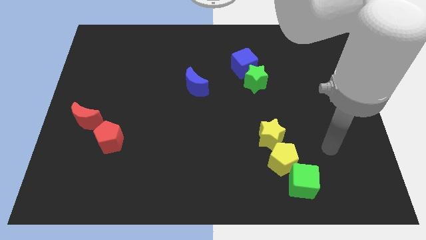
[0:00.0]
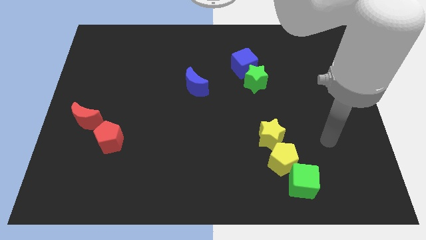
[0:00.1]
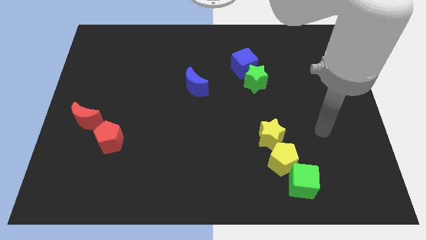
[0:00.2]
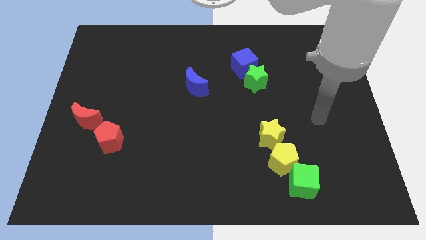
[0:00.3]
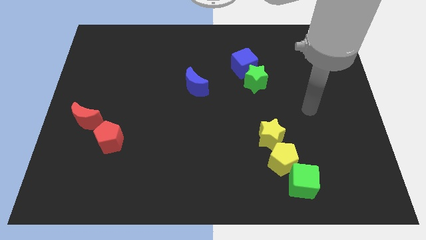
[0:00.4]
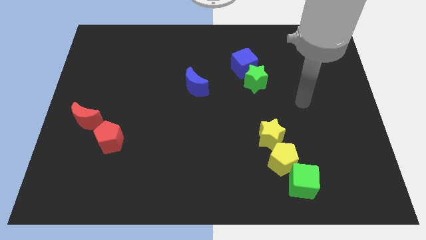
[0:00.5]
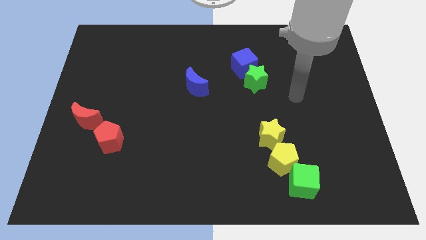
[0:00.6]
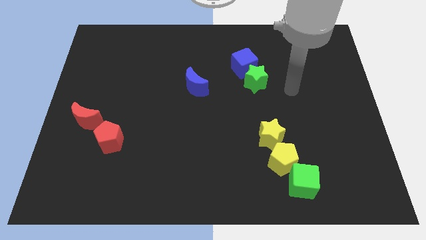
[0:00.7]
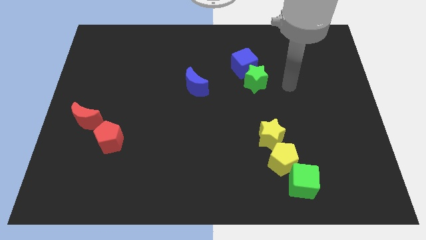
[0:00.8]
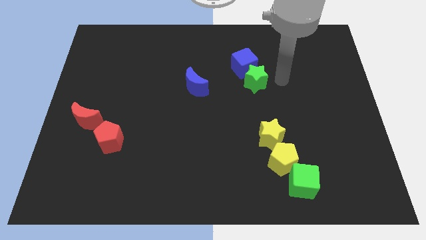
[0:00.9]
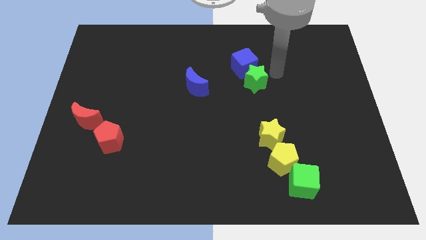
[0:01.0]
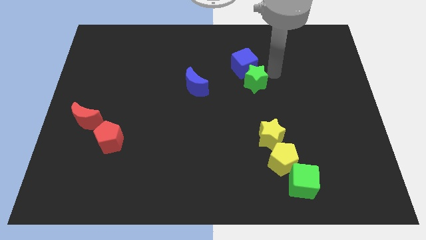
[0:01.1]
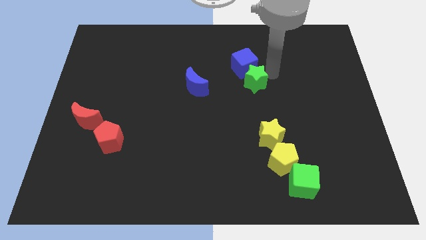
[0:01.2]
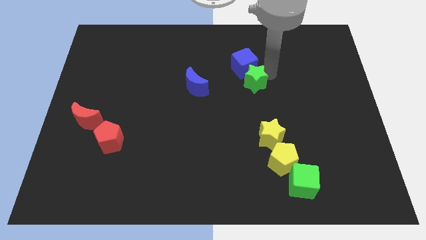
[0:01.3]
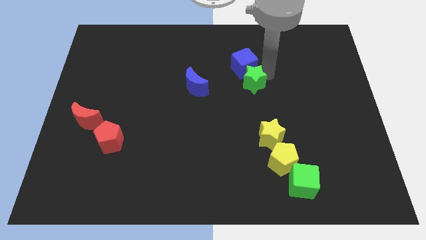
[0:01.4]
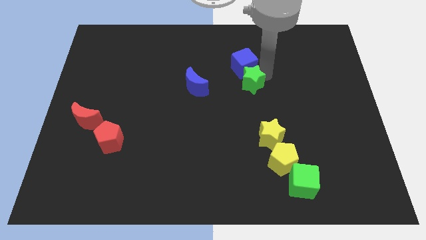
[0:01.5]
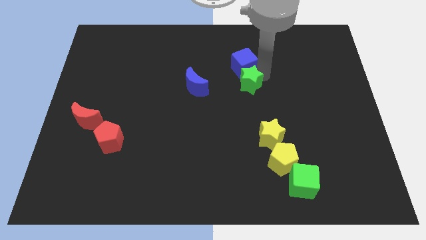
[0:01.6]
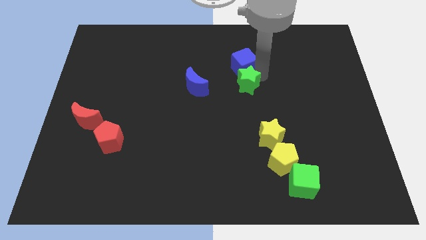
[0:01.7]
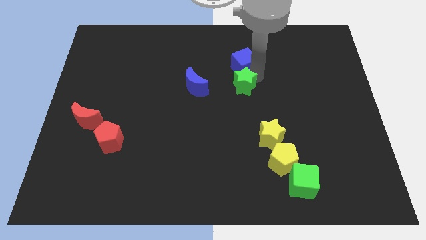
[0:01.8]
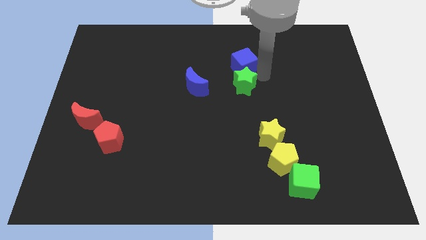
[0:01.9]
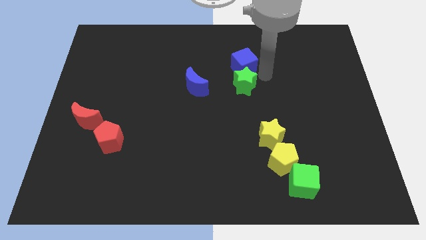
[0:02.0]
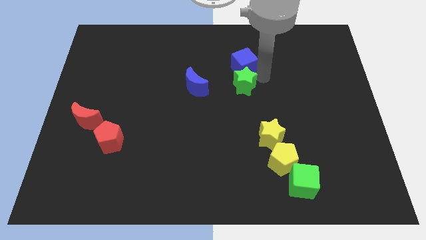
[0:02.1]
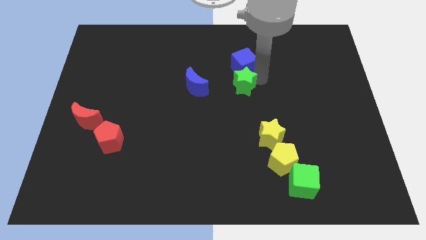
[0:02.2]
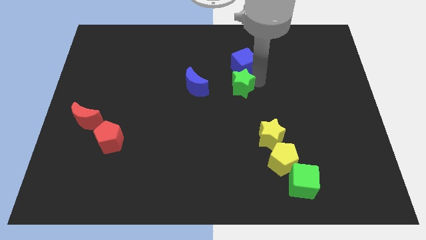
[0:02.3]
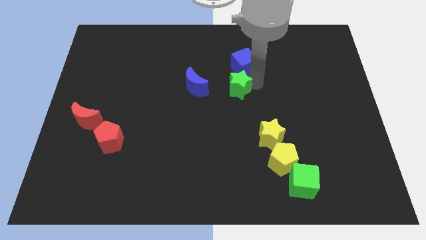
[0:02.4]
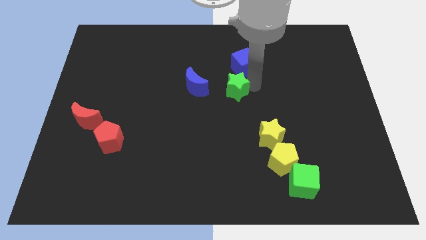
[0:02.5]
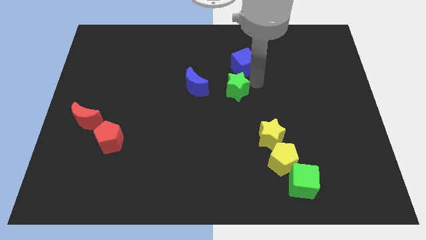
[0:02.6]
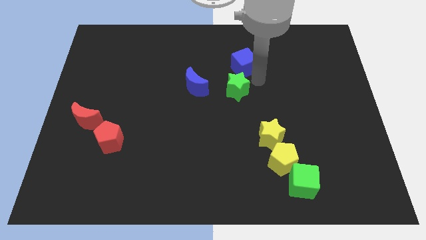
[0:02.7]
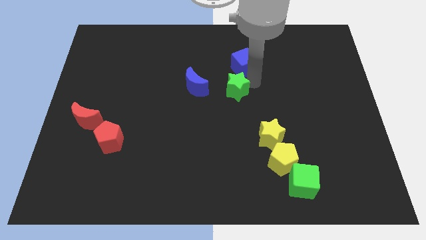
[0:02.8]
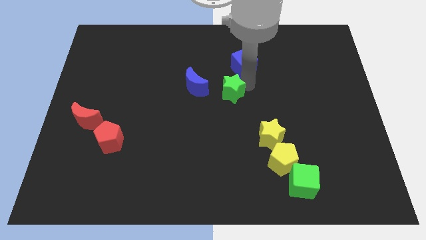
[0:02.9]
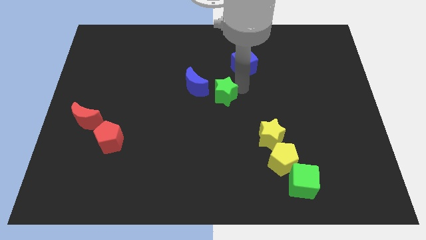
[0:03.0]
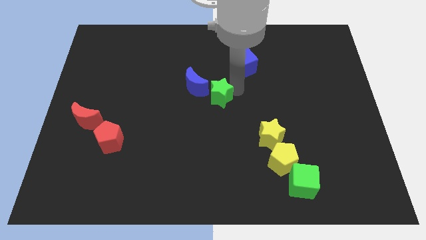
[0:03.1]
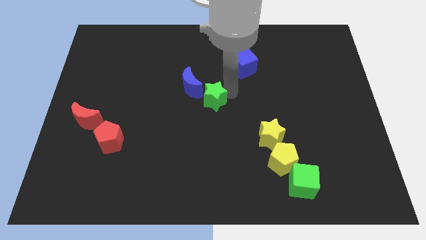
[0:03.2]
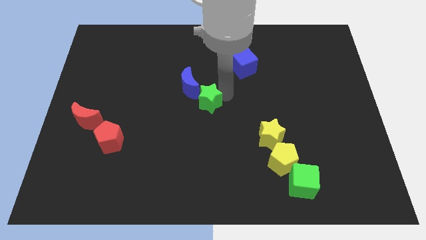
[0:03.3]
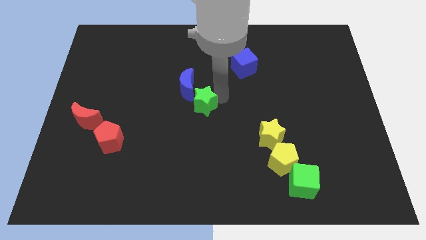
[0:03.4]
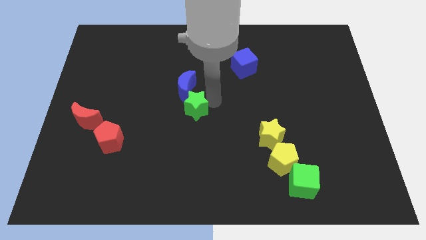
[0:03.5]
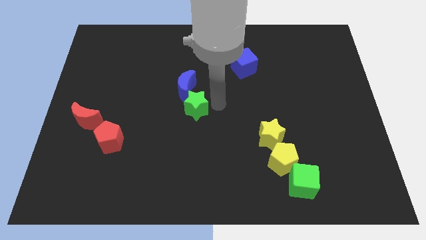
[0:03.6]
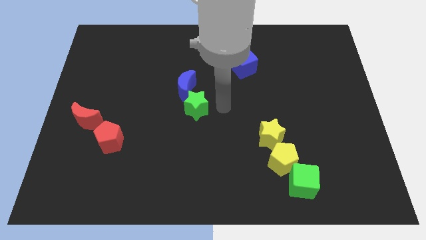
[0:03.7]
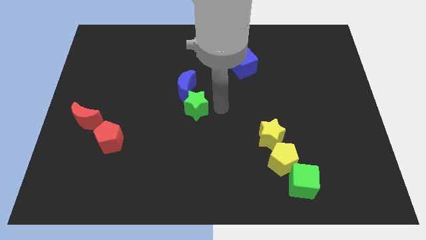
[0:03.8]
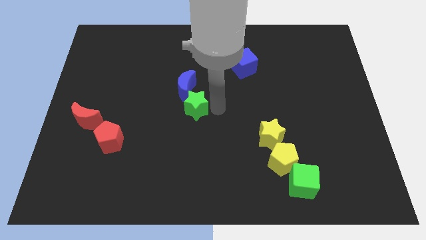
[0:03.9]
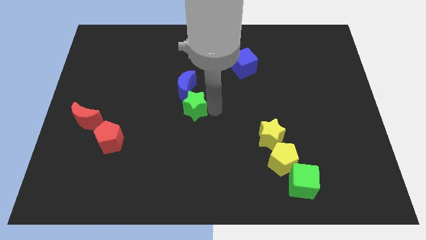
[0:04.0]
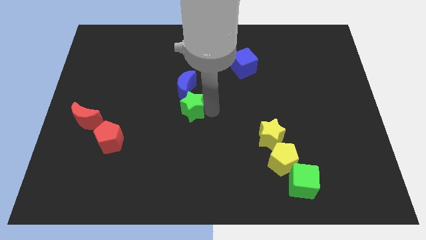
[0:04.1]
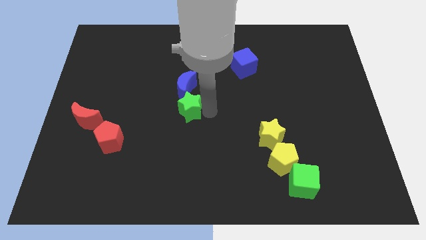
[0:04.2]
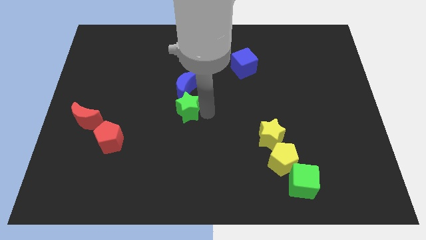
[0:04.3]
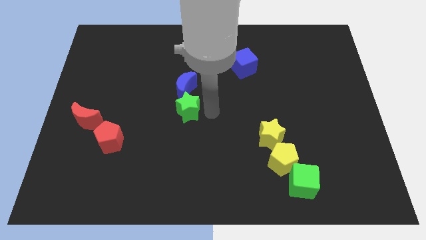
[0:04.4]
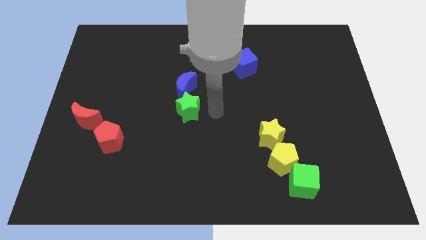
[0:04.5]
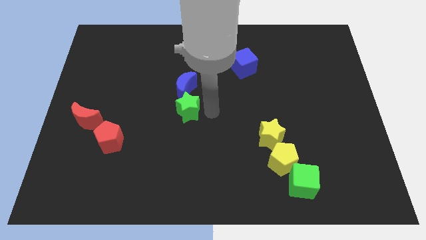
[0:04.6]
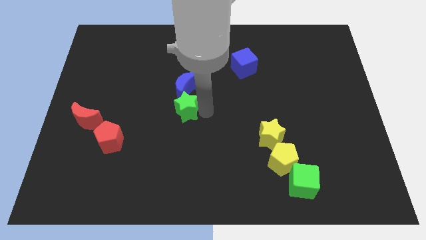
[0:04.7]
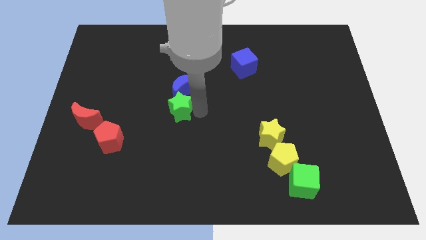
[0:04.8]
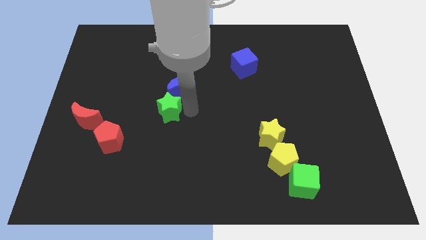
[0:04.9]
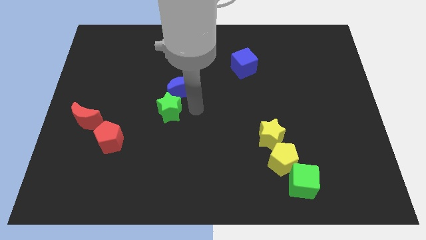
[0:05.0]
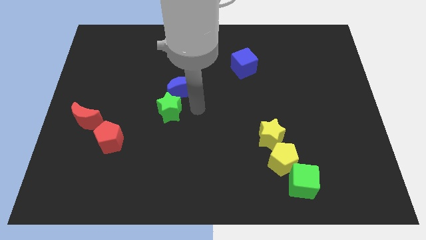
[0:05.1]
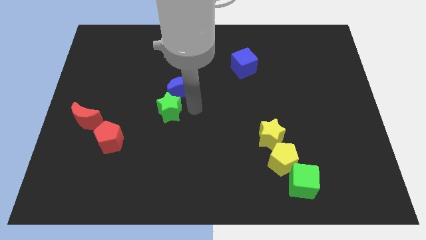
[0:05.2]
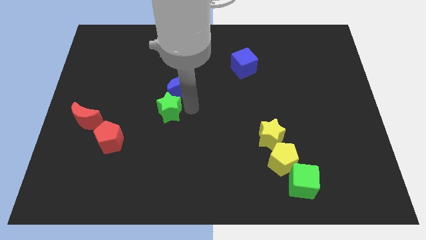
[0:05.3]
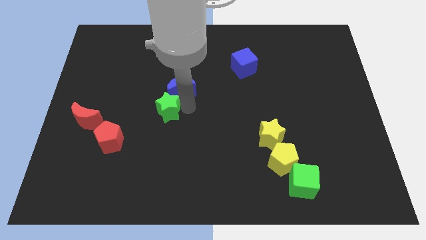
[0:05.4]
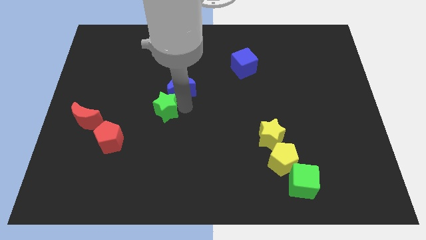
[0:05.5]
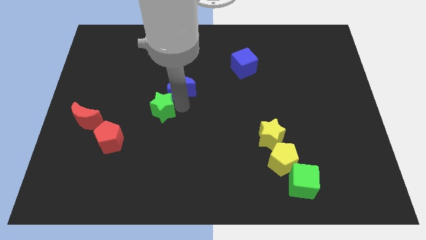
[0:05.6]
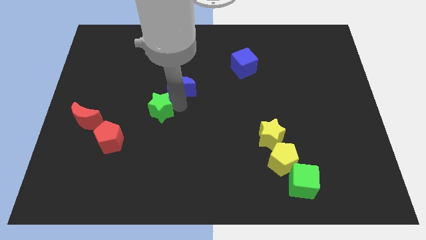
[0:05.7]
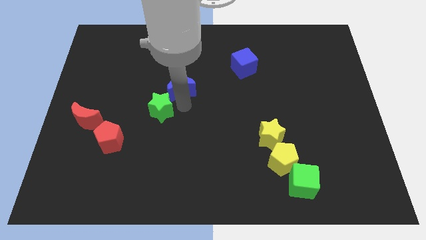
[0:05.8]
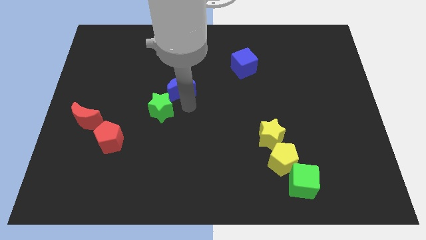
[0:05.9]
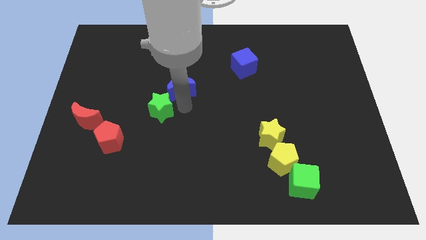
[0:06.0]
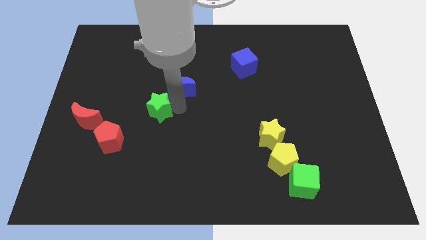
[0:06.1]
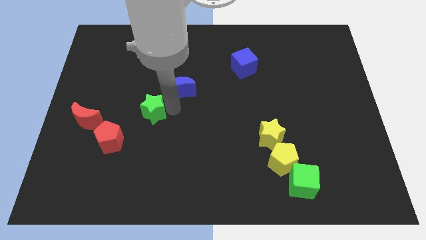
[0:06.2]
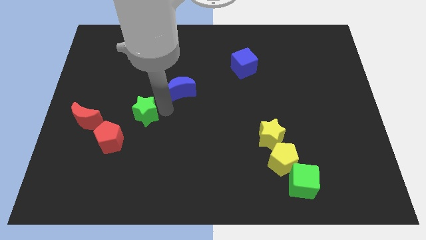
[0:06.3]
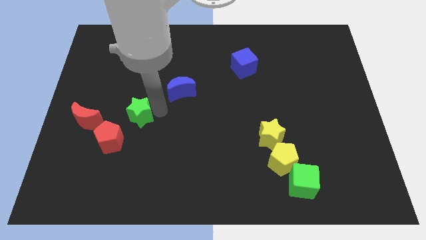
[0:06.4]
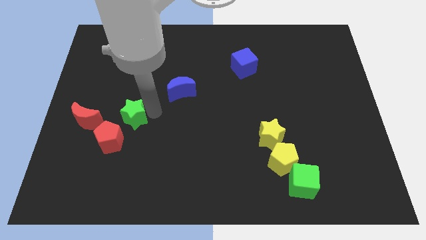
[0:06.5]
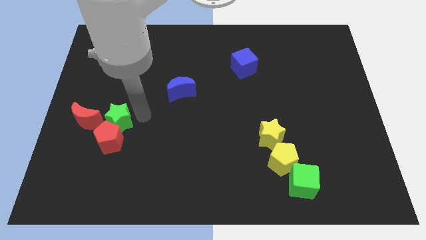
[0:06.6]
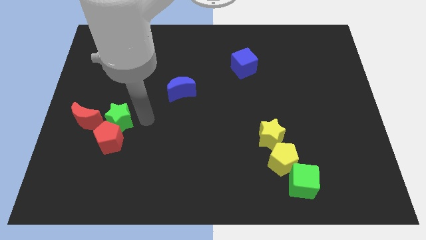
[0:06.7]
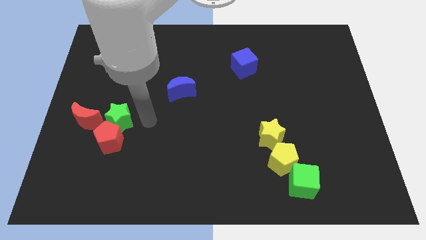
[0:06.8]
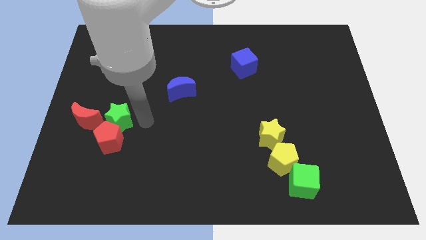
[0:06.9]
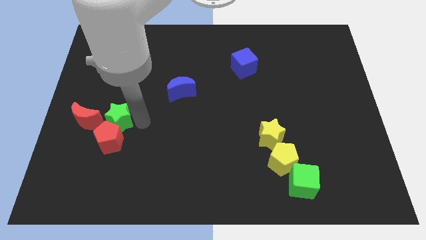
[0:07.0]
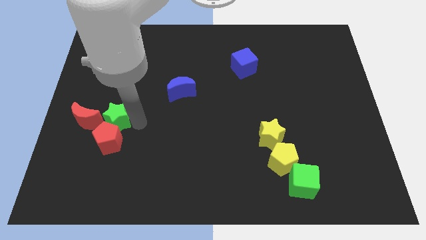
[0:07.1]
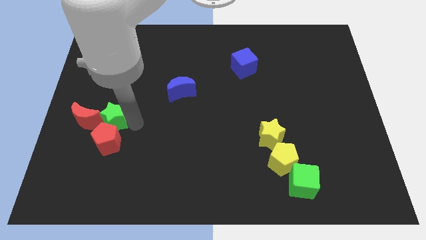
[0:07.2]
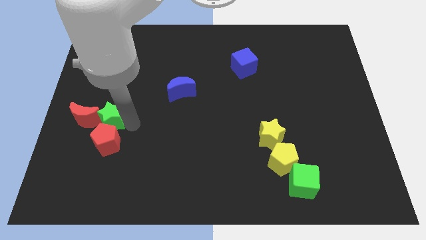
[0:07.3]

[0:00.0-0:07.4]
put the green star to the red moon

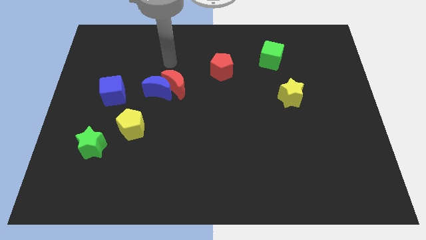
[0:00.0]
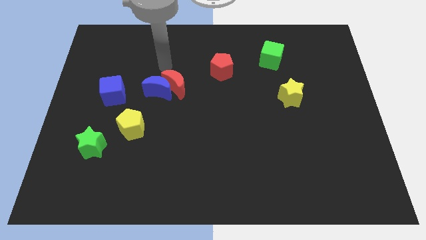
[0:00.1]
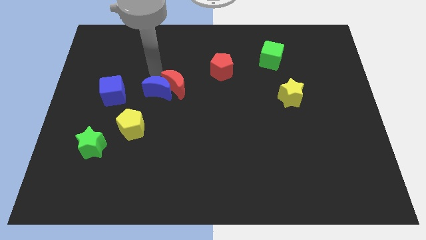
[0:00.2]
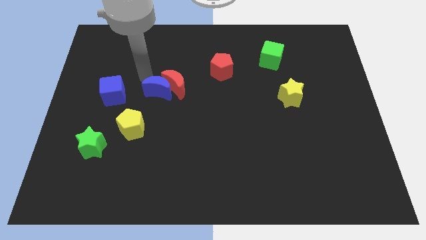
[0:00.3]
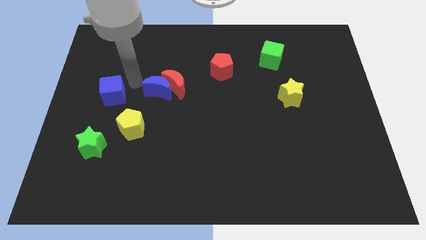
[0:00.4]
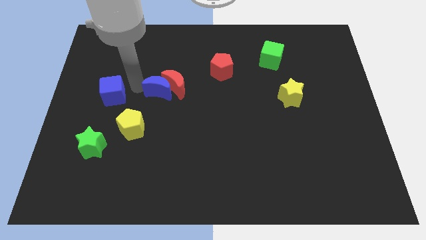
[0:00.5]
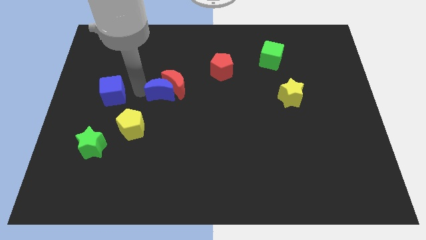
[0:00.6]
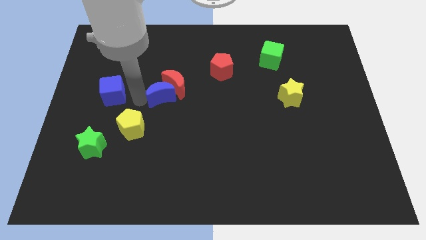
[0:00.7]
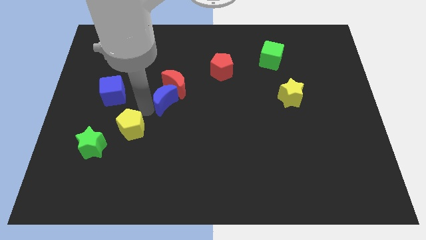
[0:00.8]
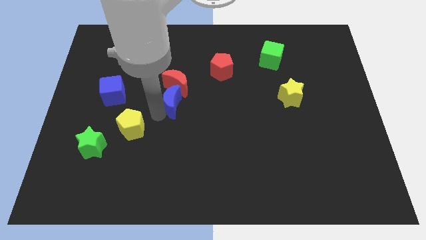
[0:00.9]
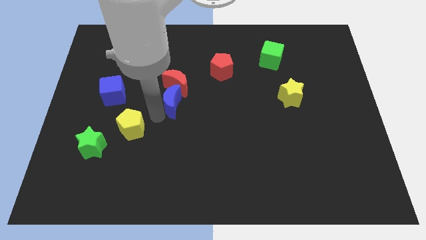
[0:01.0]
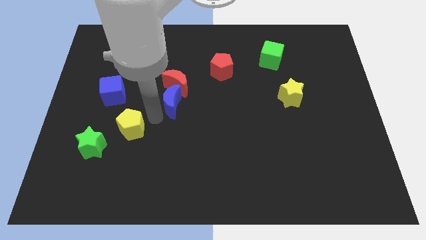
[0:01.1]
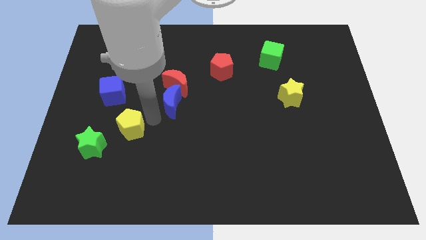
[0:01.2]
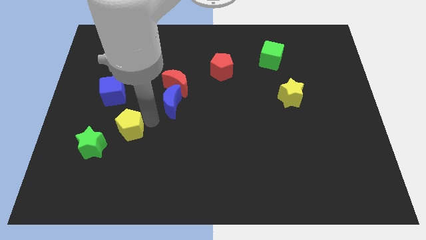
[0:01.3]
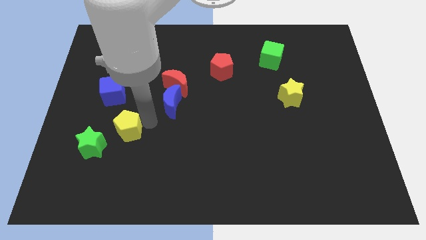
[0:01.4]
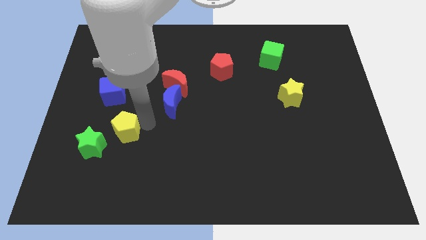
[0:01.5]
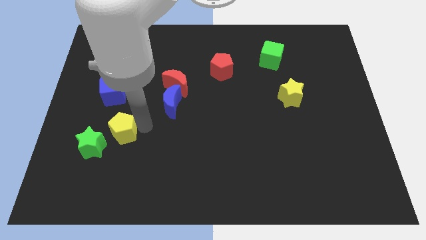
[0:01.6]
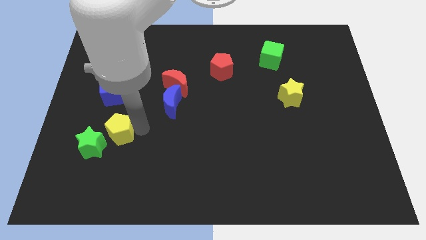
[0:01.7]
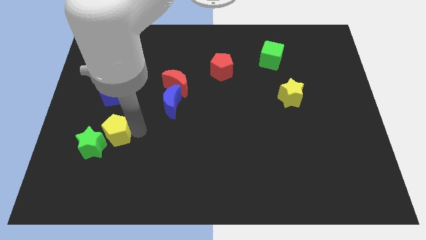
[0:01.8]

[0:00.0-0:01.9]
move the yellow pentagon close to the green star
